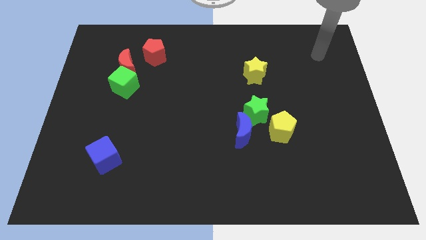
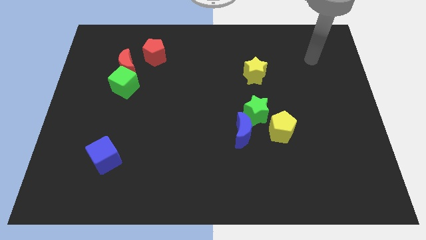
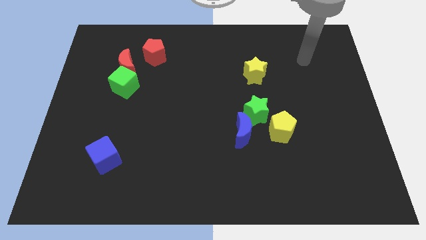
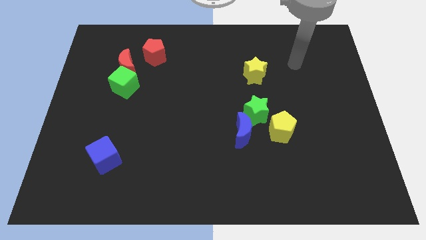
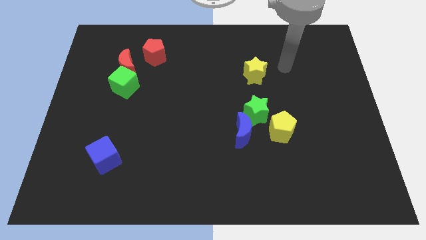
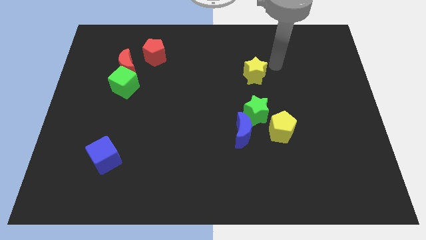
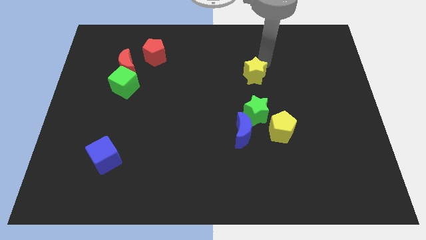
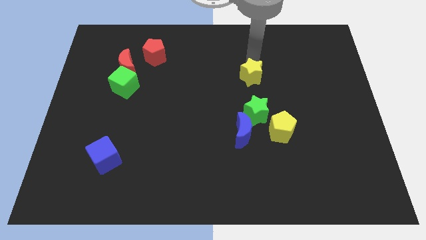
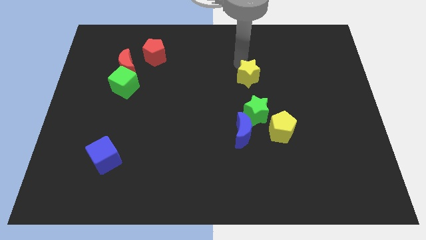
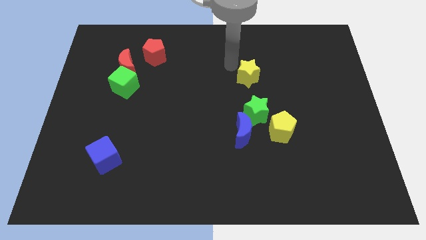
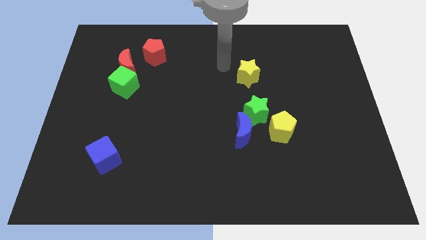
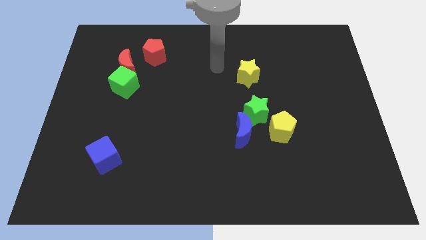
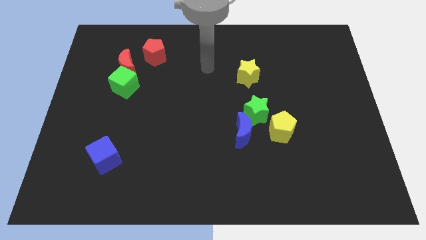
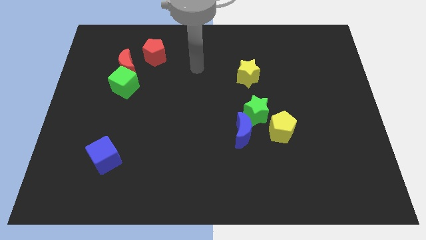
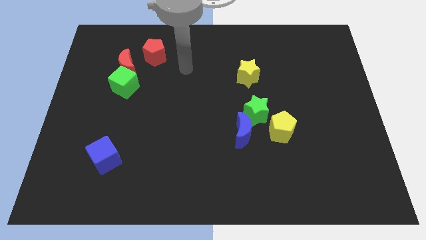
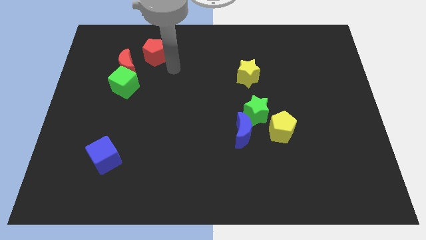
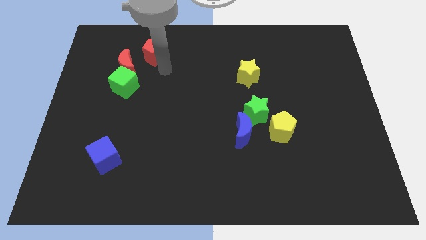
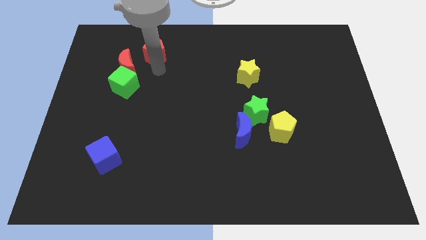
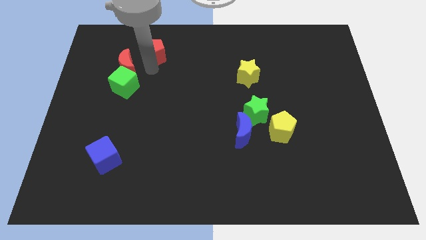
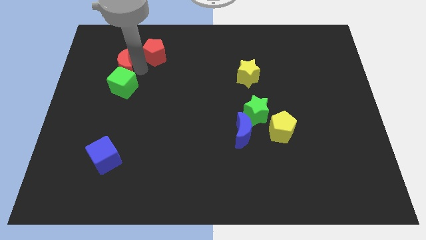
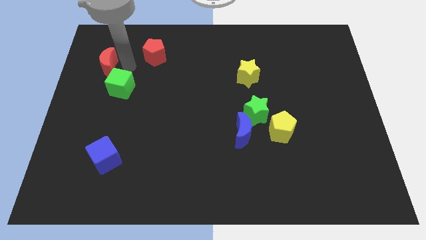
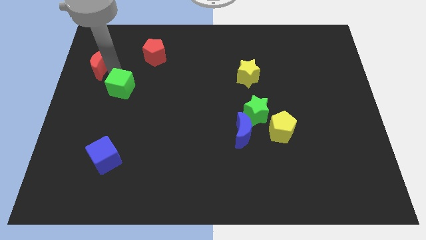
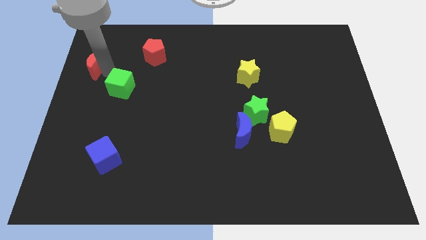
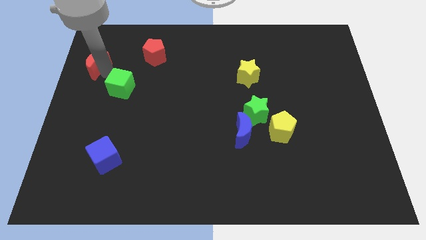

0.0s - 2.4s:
separate the green cube from the red moon

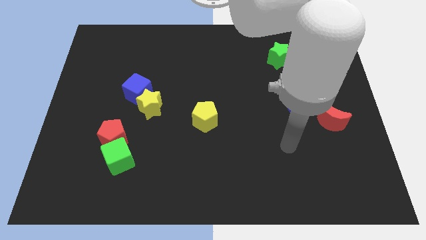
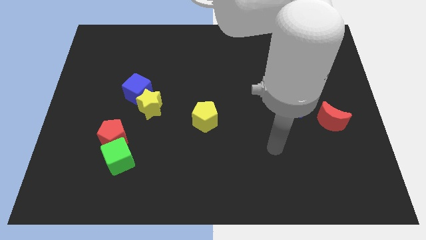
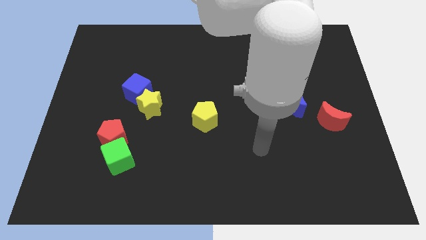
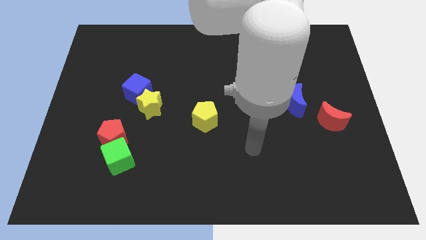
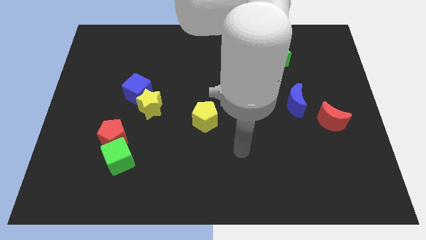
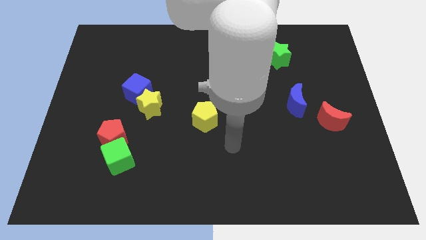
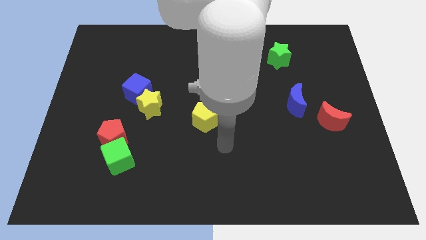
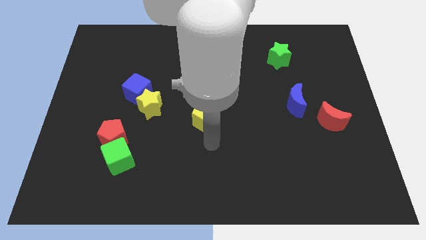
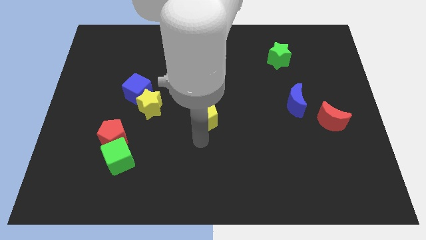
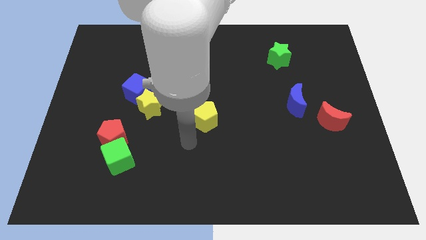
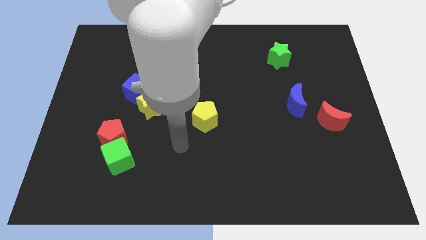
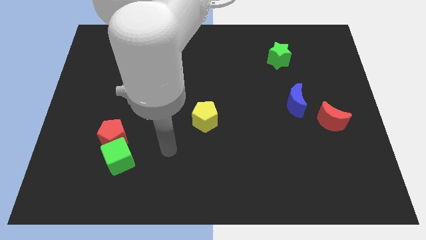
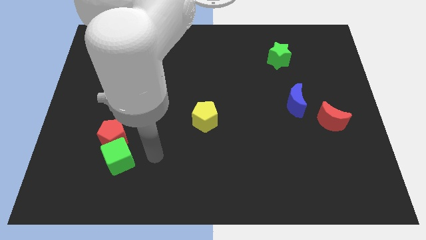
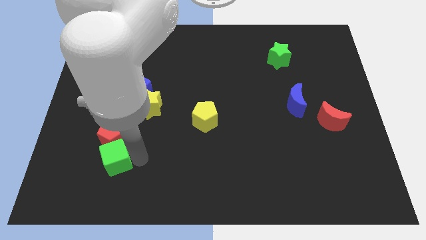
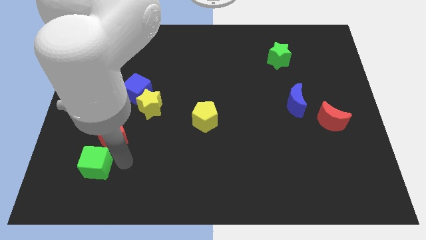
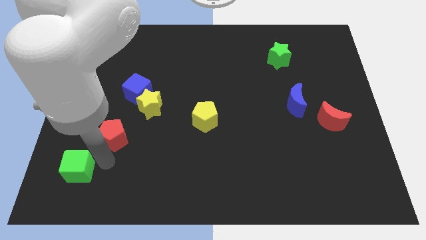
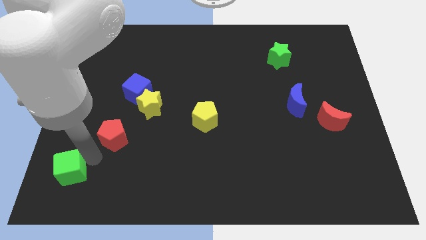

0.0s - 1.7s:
move the red pentagon away from the green cube

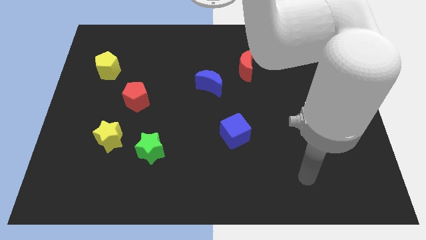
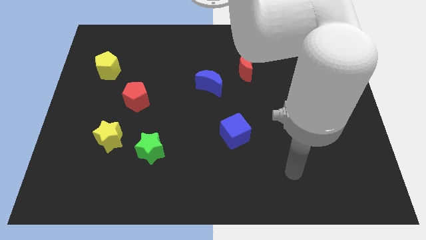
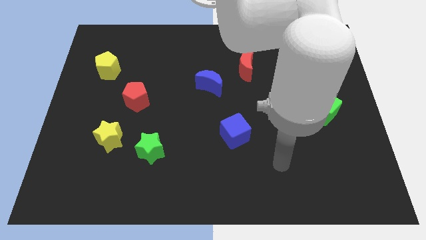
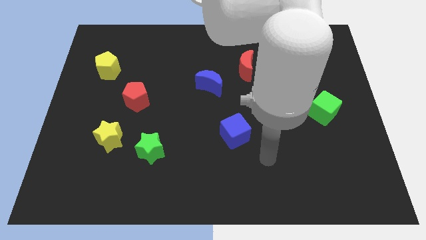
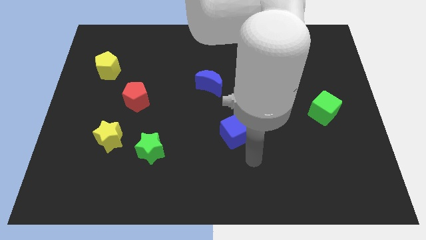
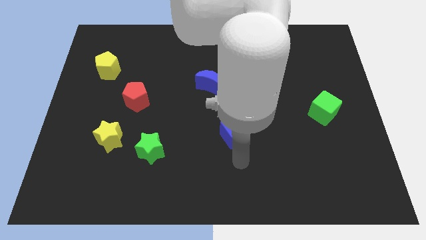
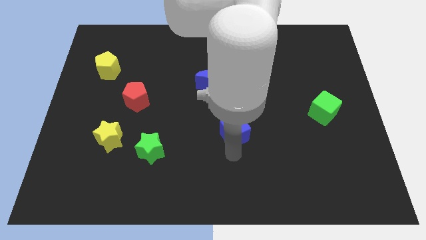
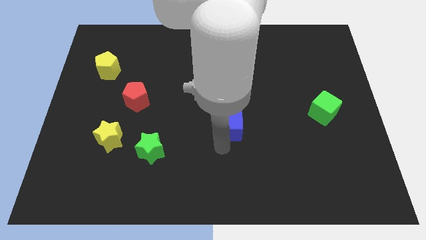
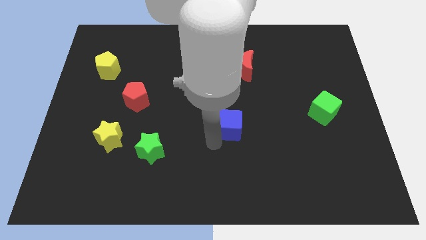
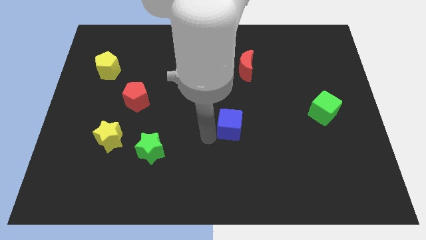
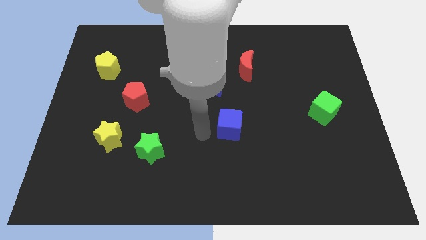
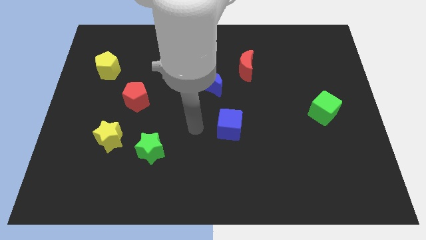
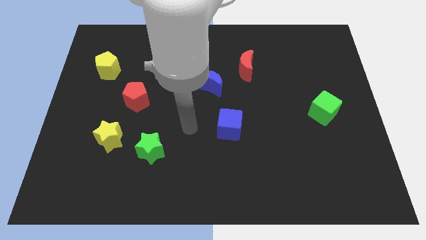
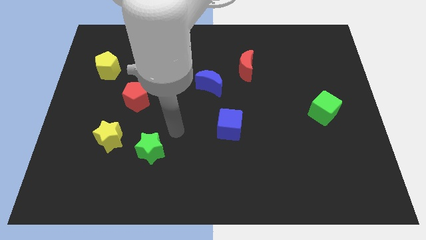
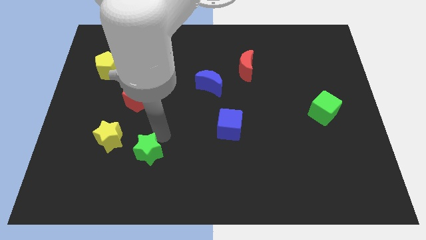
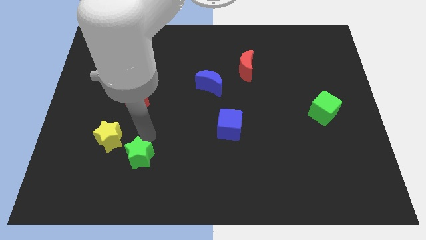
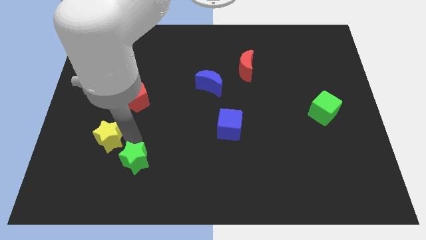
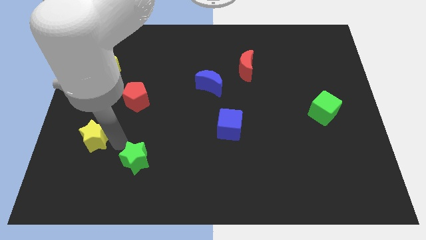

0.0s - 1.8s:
separate the green star from the yellow star

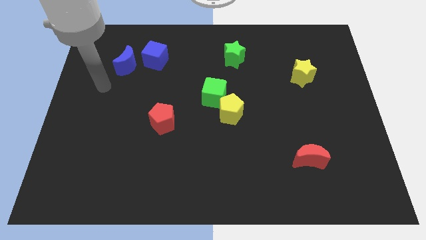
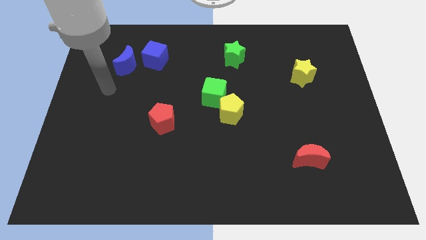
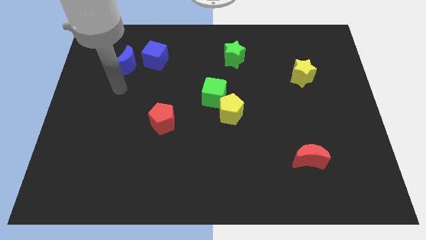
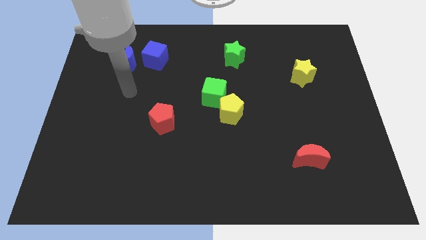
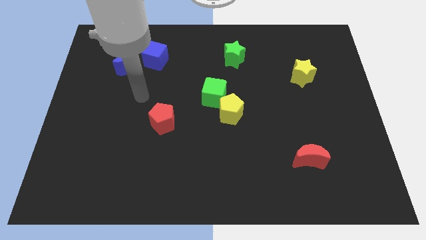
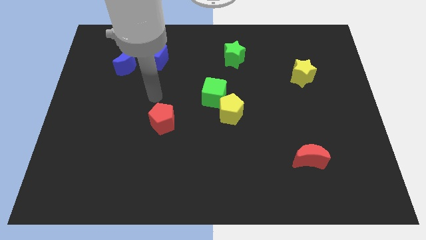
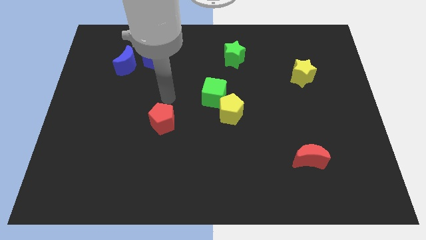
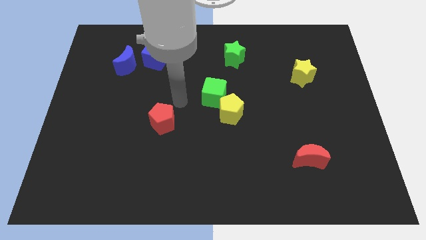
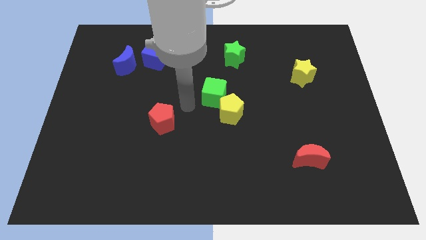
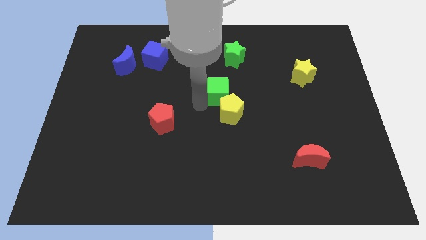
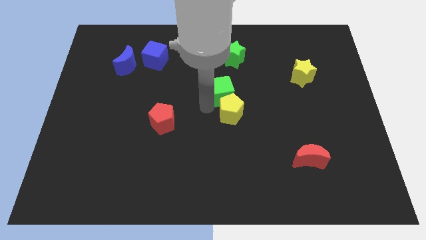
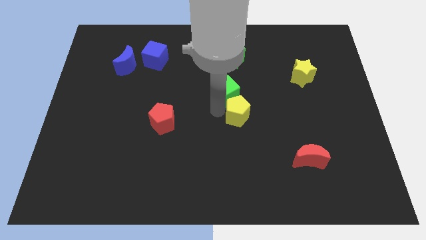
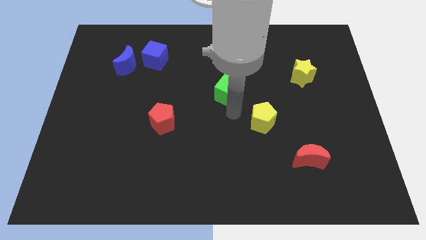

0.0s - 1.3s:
separate the green cube from the yellow pentagon

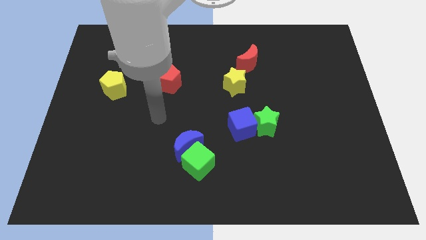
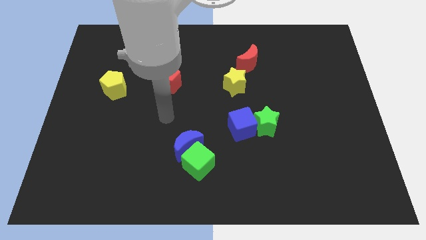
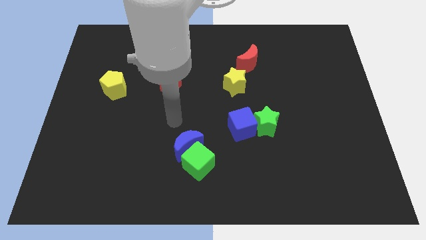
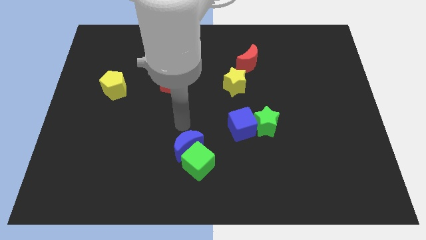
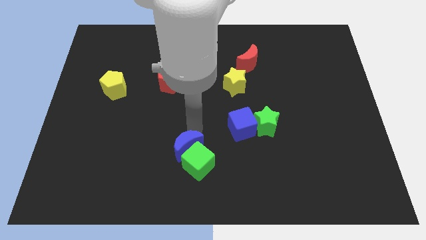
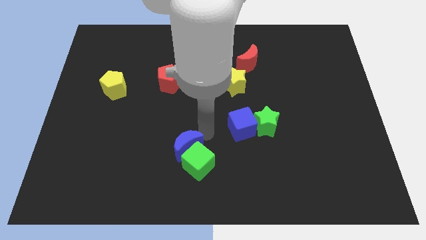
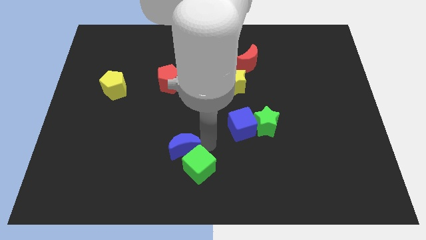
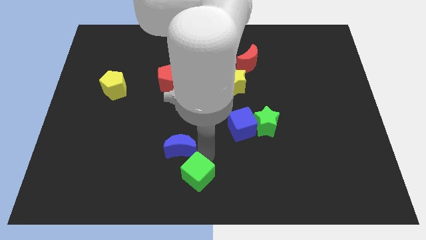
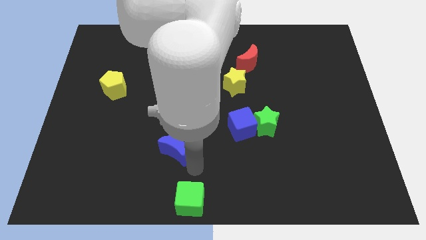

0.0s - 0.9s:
separate the blue moon from the green cube

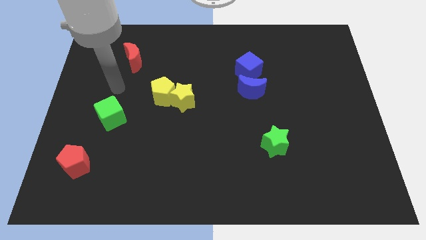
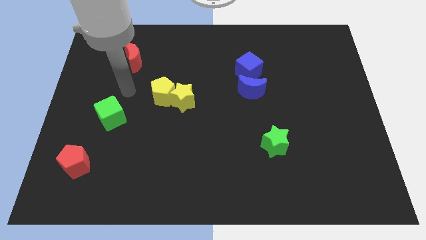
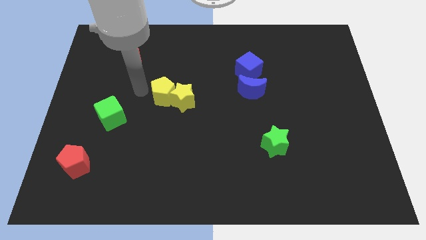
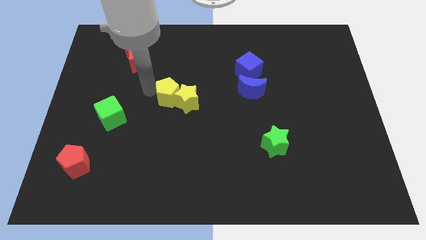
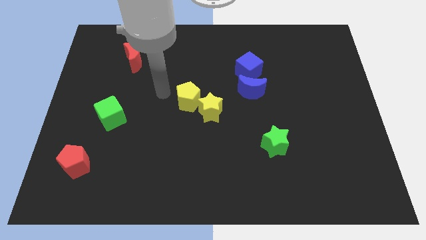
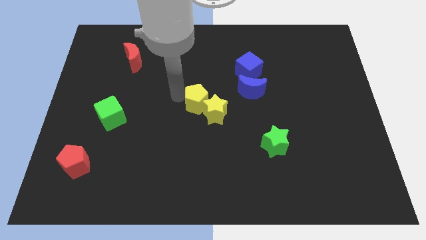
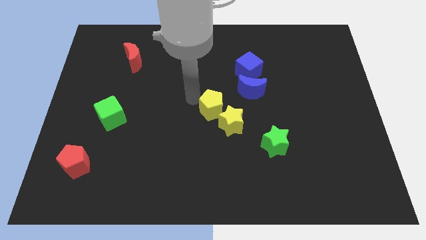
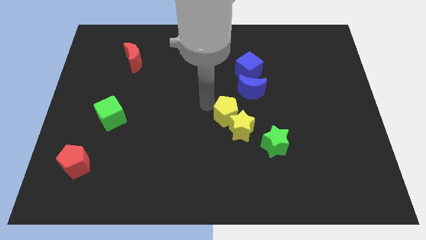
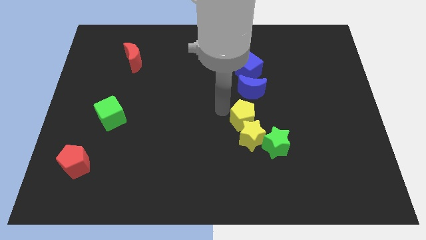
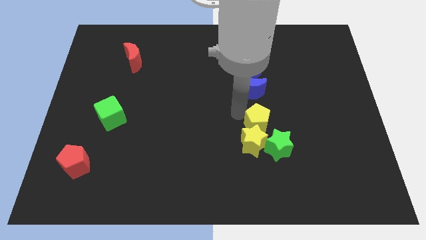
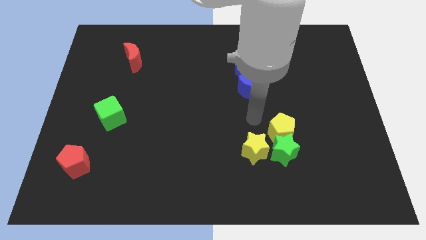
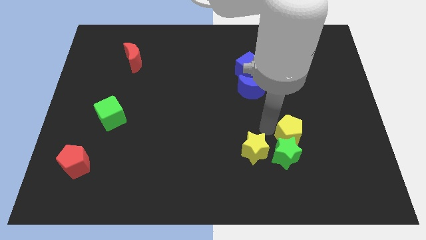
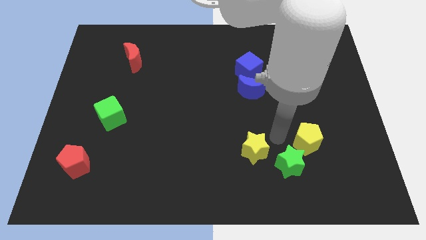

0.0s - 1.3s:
separate the yellow star from the yellow pentagon
